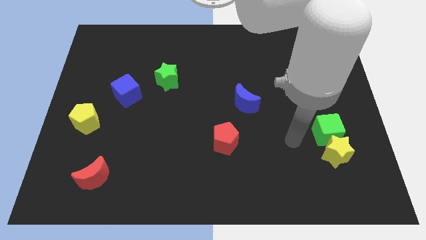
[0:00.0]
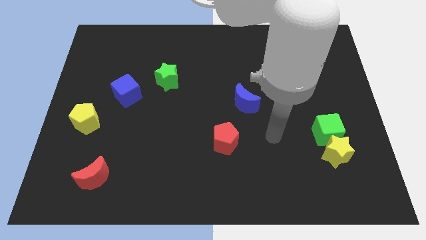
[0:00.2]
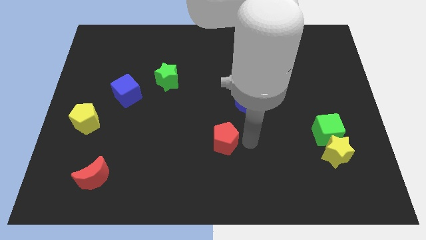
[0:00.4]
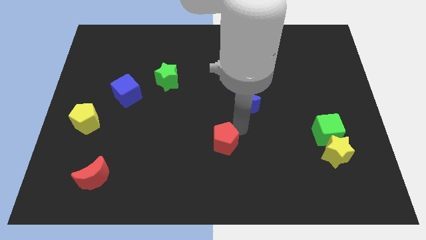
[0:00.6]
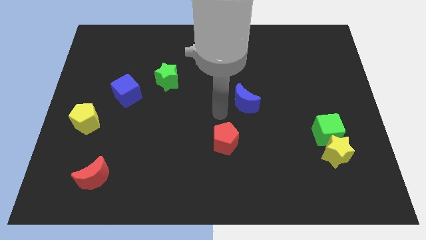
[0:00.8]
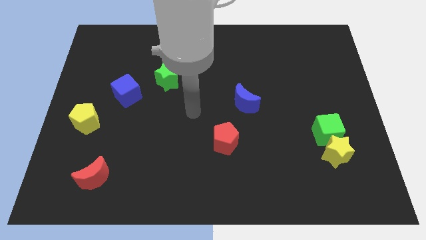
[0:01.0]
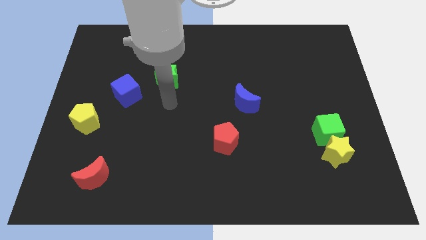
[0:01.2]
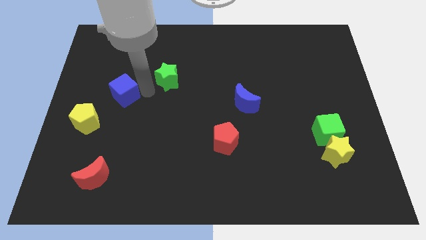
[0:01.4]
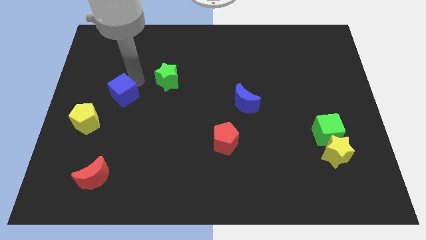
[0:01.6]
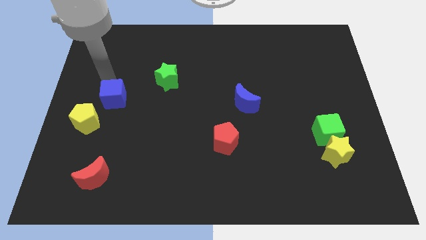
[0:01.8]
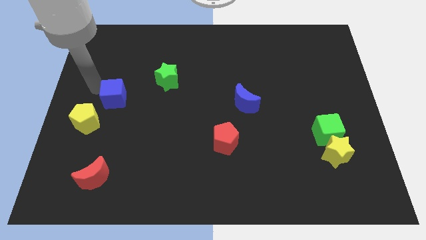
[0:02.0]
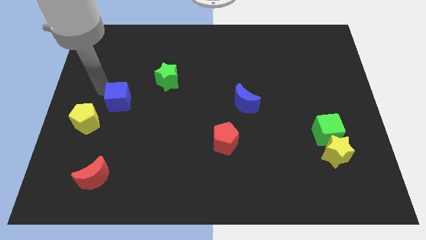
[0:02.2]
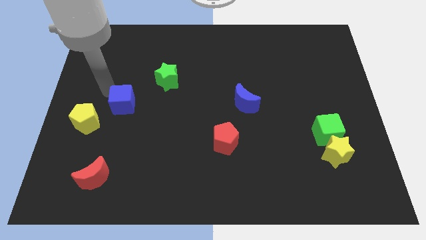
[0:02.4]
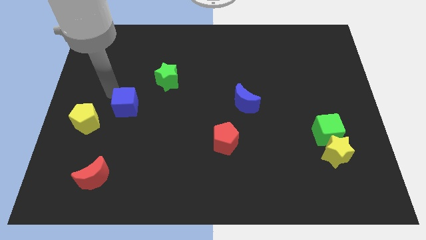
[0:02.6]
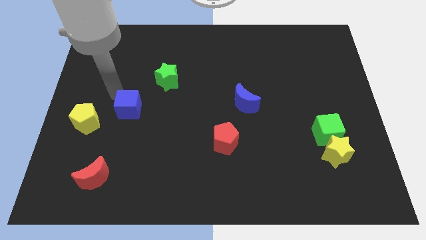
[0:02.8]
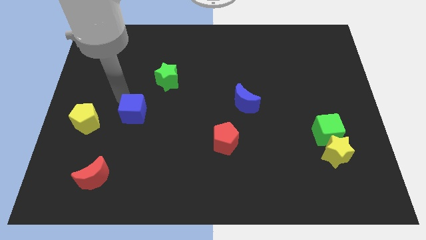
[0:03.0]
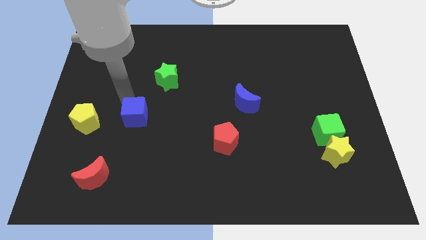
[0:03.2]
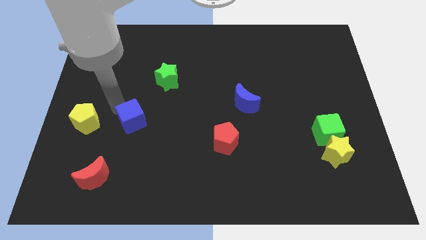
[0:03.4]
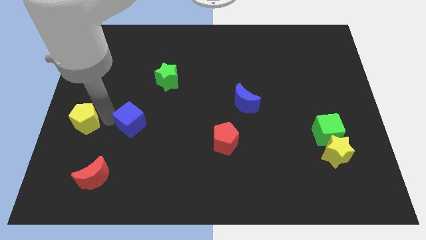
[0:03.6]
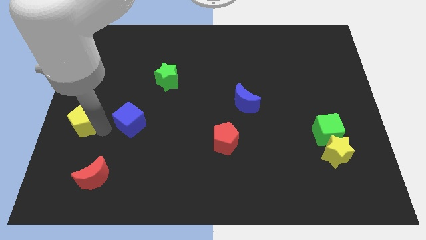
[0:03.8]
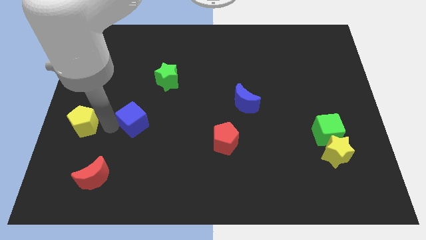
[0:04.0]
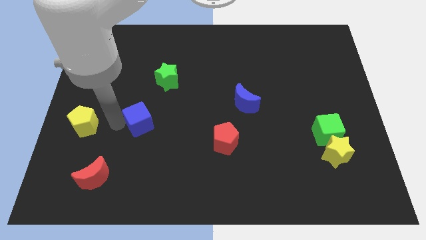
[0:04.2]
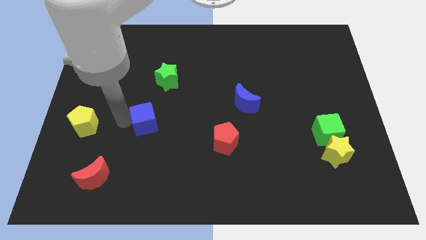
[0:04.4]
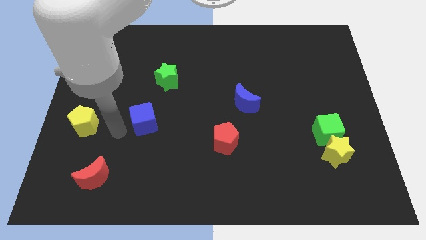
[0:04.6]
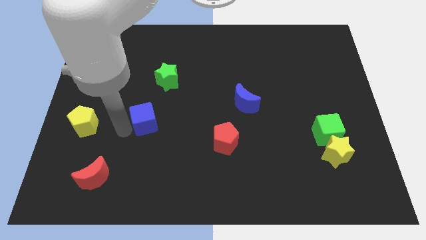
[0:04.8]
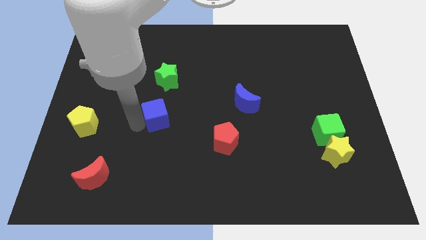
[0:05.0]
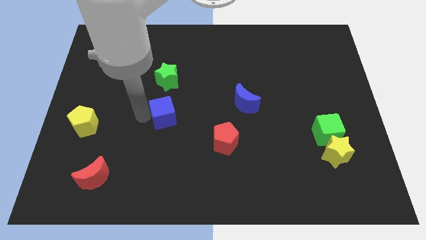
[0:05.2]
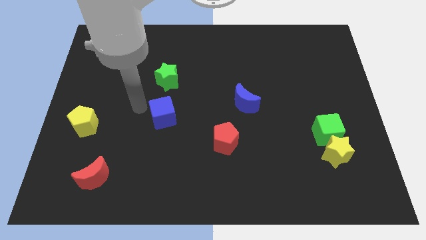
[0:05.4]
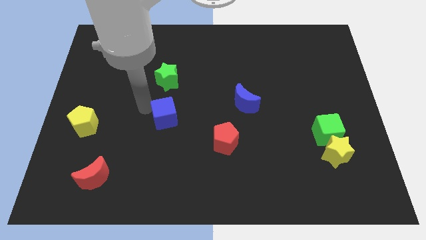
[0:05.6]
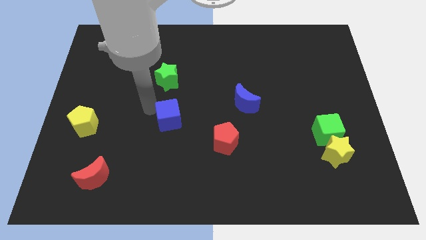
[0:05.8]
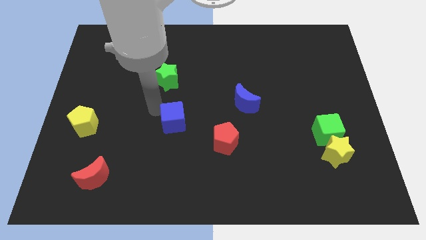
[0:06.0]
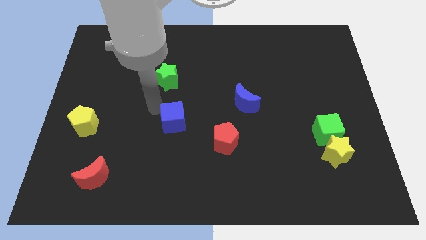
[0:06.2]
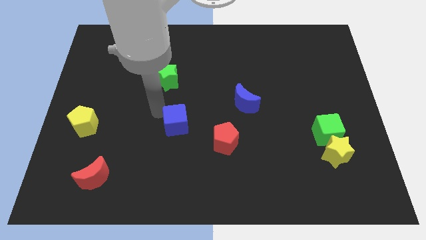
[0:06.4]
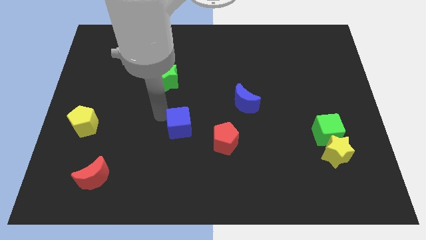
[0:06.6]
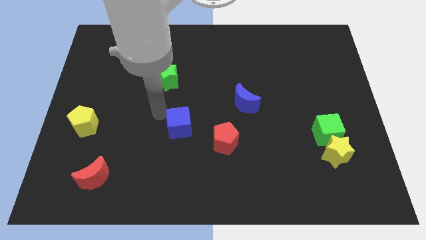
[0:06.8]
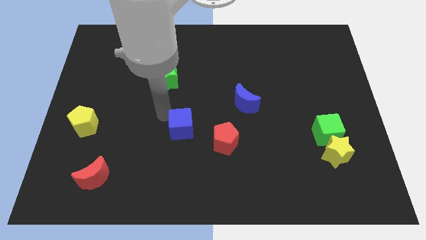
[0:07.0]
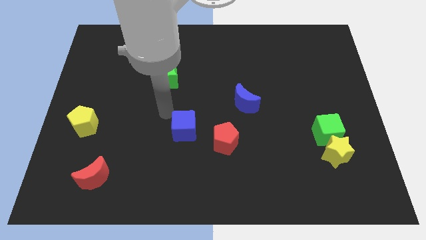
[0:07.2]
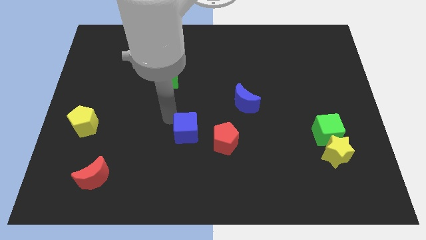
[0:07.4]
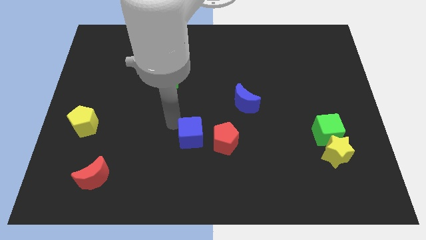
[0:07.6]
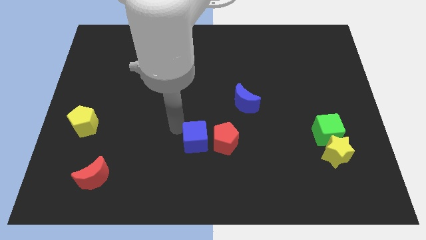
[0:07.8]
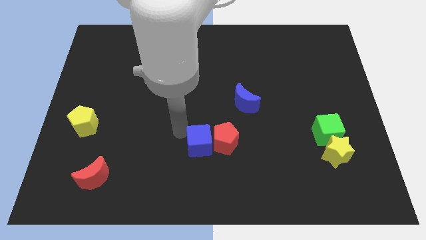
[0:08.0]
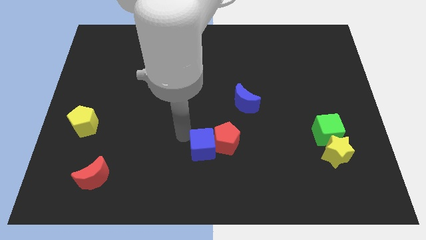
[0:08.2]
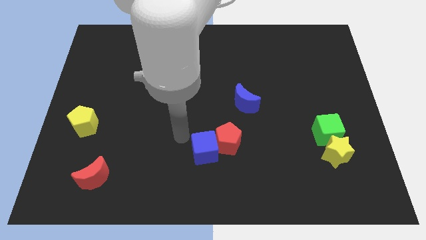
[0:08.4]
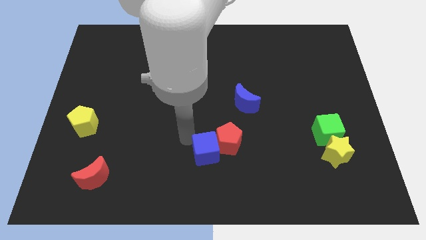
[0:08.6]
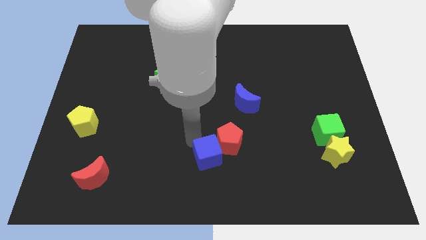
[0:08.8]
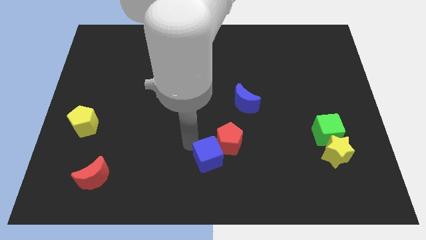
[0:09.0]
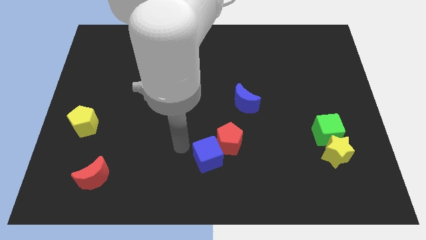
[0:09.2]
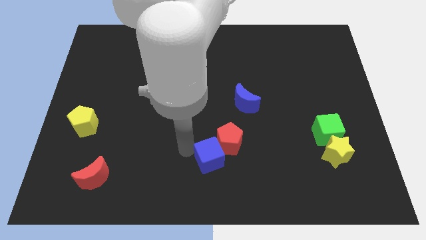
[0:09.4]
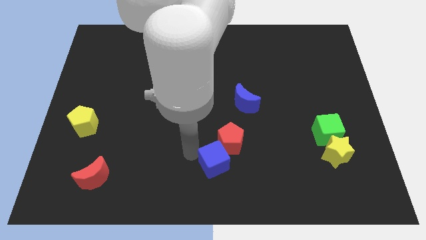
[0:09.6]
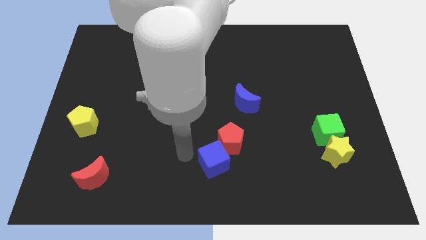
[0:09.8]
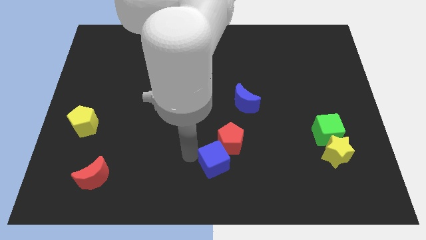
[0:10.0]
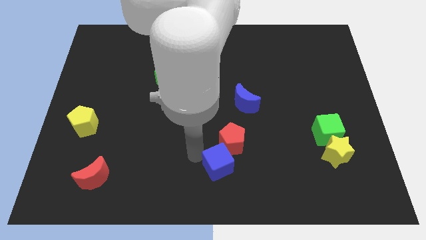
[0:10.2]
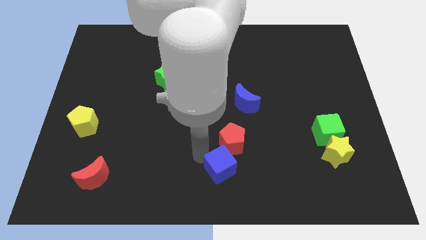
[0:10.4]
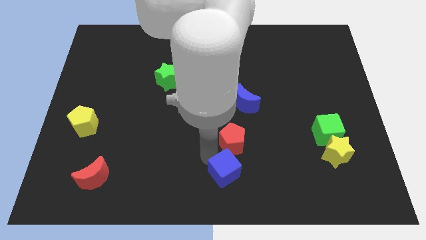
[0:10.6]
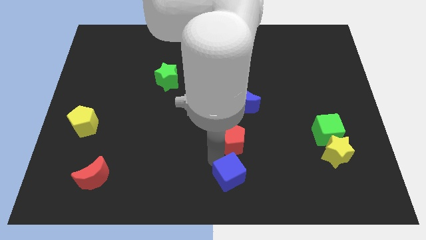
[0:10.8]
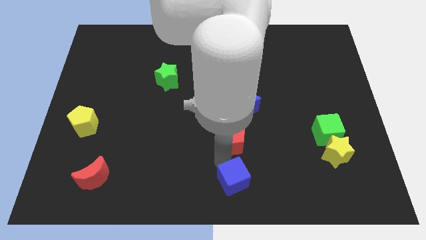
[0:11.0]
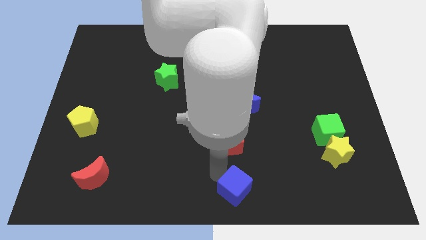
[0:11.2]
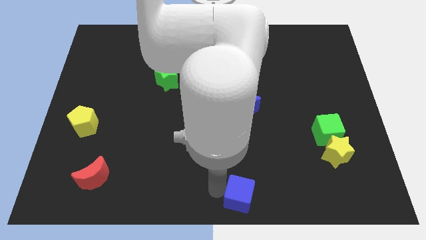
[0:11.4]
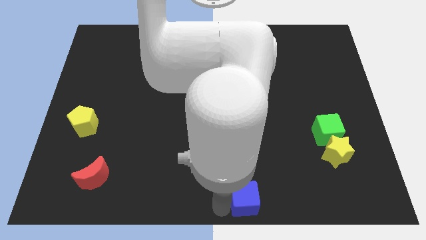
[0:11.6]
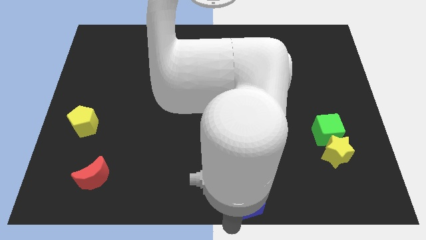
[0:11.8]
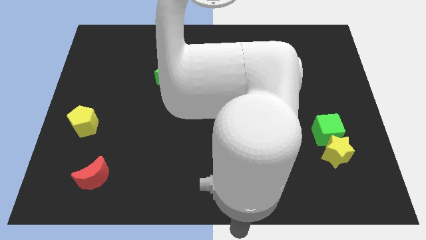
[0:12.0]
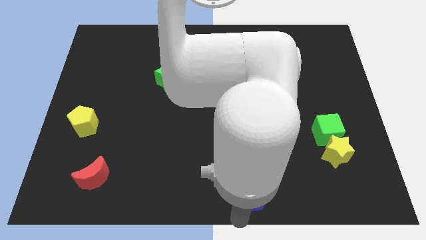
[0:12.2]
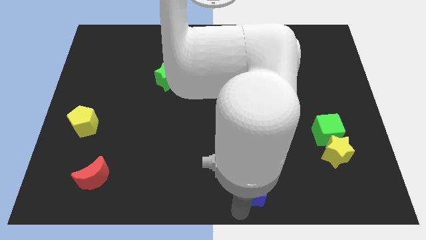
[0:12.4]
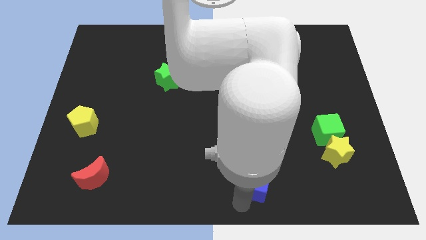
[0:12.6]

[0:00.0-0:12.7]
move the blue cube diagonally down and to the right of the red pentagon
